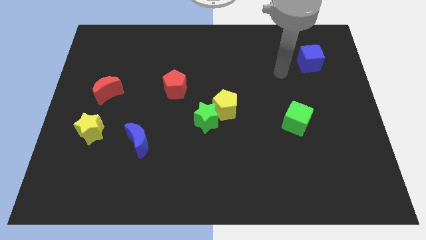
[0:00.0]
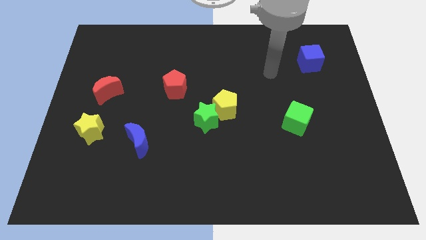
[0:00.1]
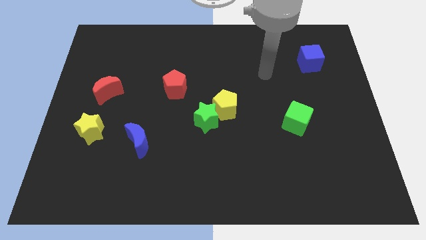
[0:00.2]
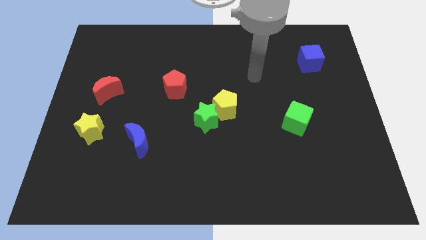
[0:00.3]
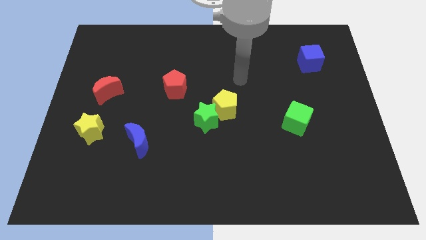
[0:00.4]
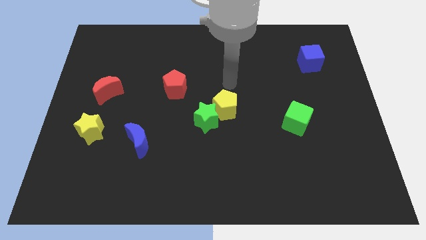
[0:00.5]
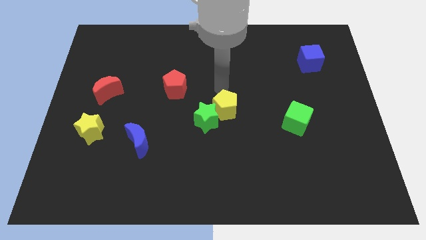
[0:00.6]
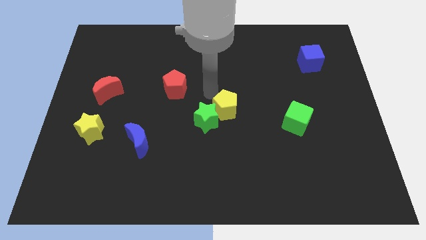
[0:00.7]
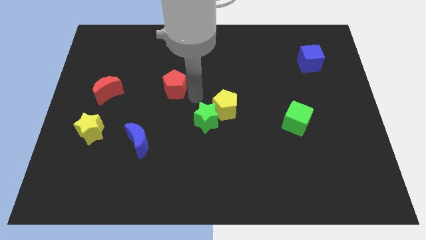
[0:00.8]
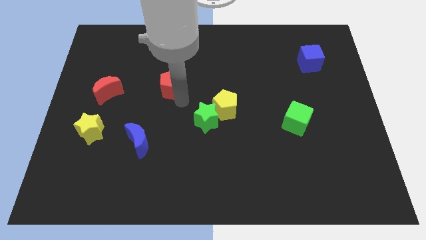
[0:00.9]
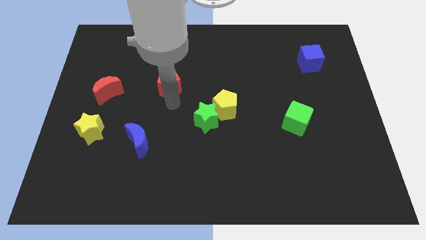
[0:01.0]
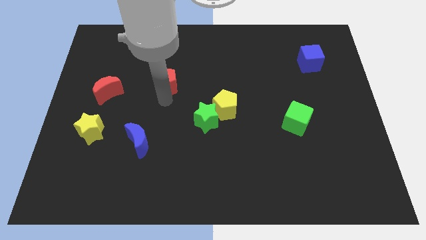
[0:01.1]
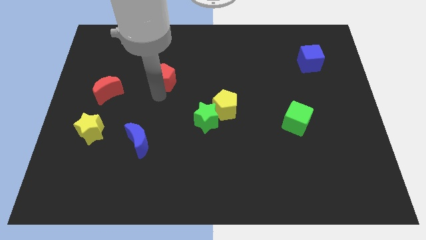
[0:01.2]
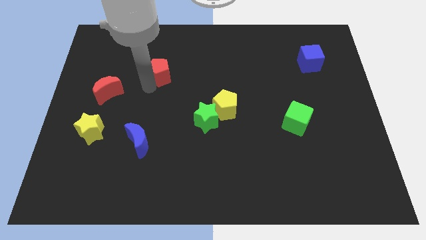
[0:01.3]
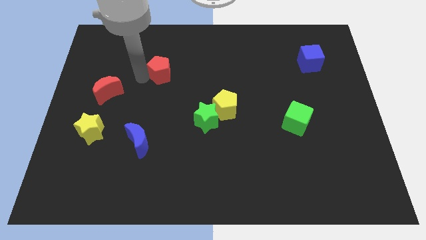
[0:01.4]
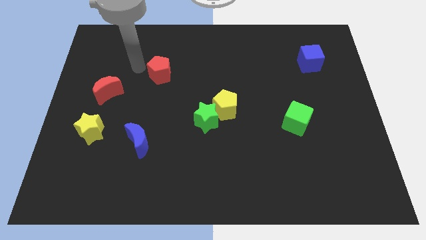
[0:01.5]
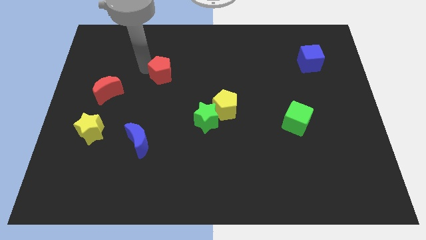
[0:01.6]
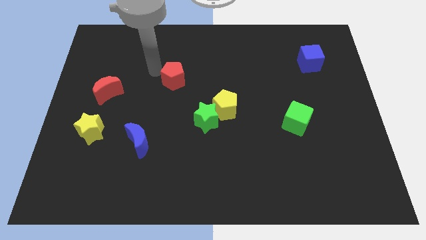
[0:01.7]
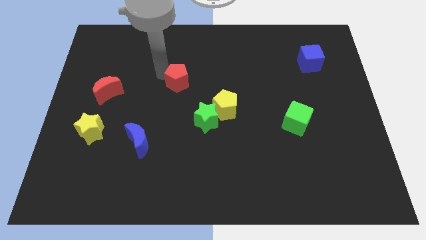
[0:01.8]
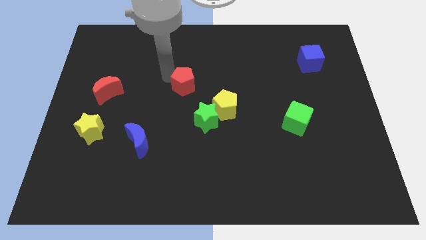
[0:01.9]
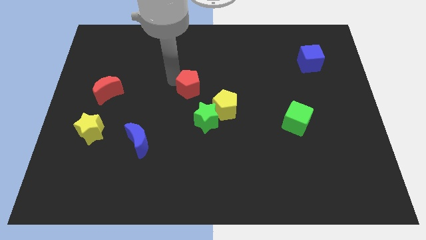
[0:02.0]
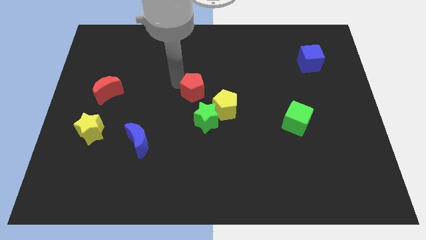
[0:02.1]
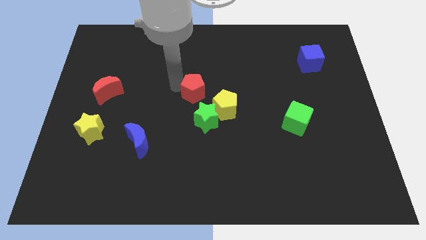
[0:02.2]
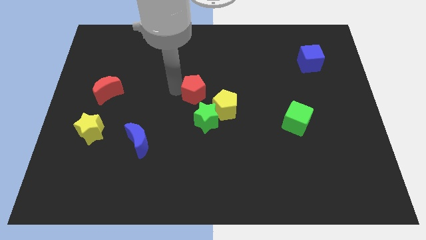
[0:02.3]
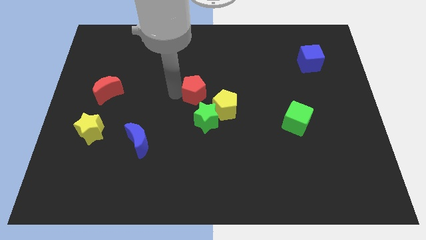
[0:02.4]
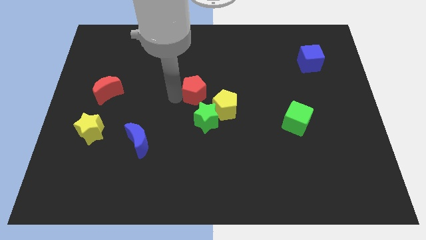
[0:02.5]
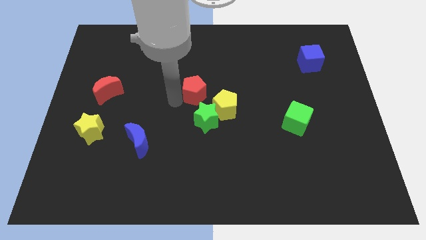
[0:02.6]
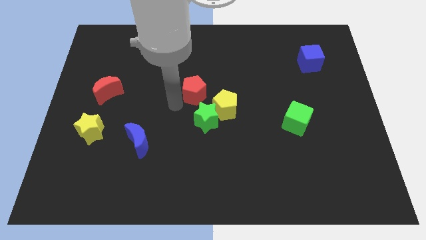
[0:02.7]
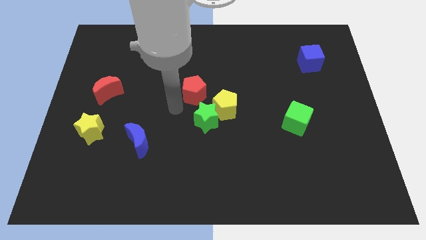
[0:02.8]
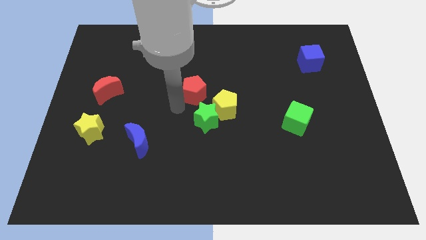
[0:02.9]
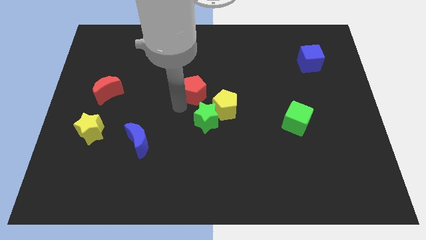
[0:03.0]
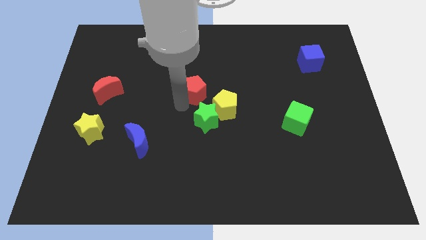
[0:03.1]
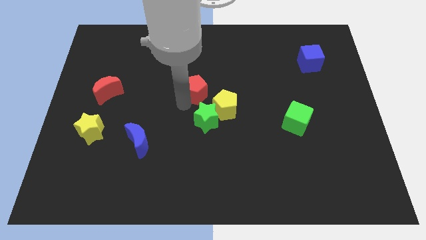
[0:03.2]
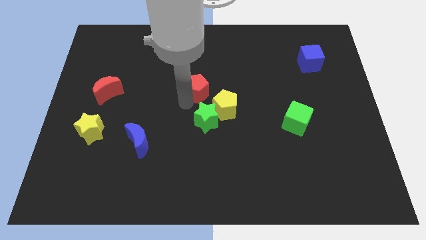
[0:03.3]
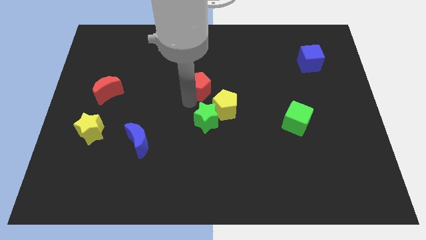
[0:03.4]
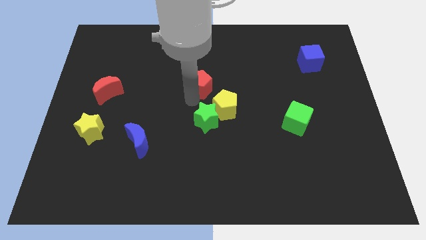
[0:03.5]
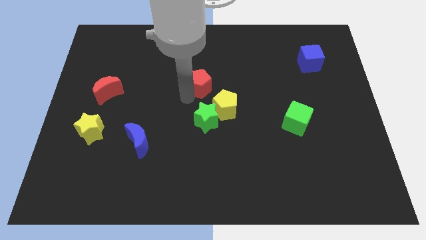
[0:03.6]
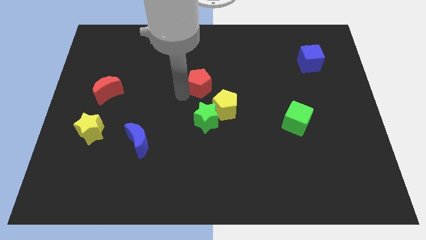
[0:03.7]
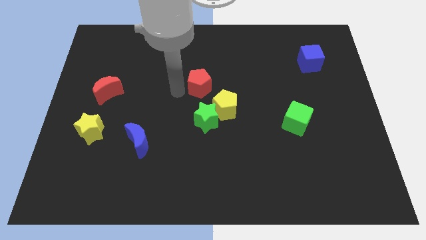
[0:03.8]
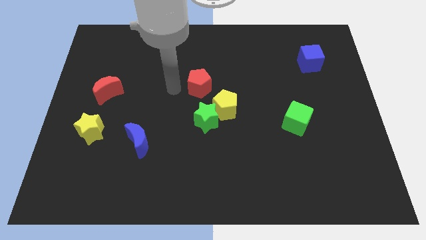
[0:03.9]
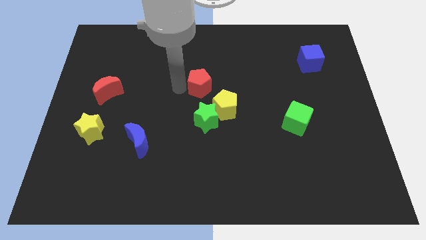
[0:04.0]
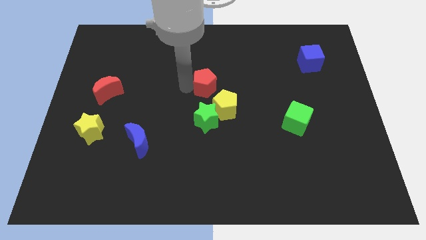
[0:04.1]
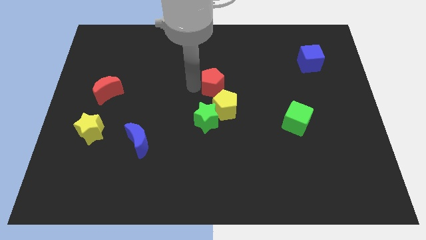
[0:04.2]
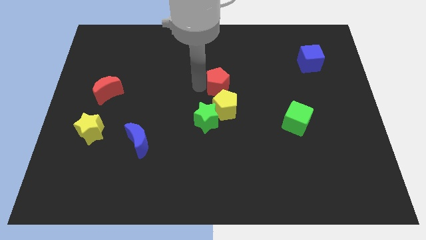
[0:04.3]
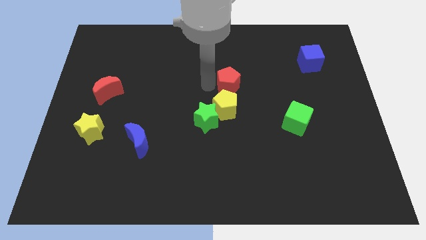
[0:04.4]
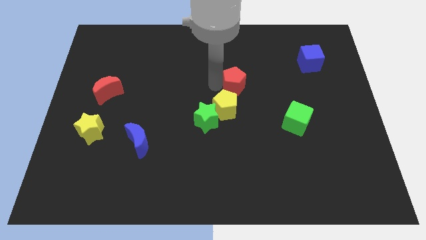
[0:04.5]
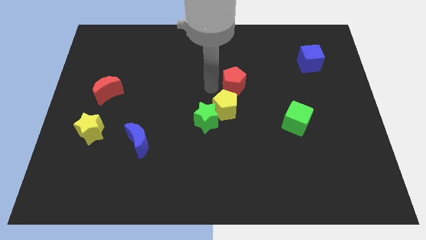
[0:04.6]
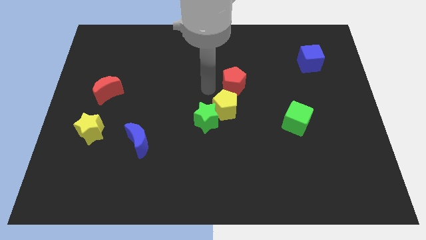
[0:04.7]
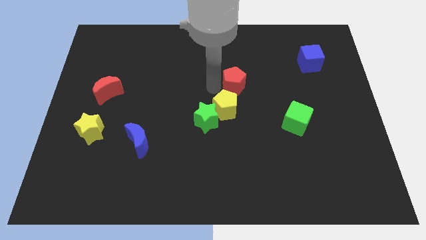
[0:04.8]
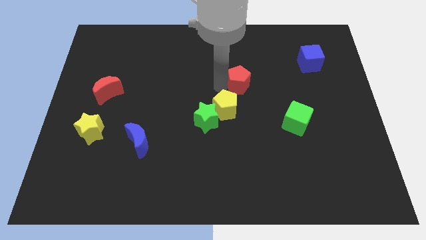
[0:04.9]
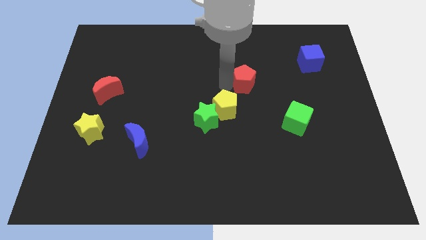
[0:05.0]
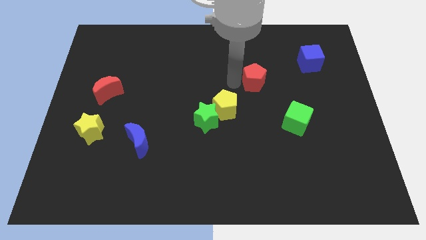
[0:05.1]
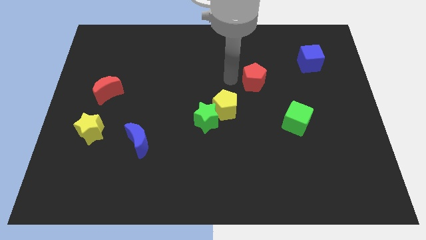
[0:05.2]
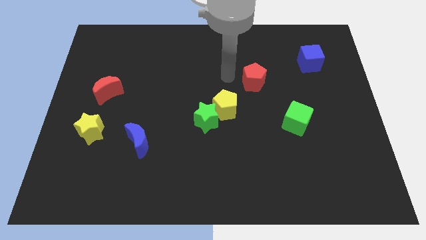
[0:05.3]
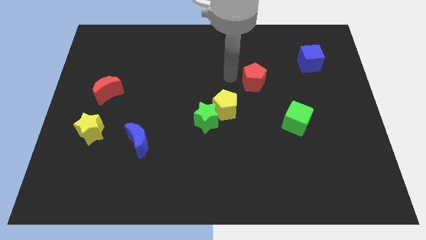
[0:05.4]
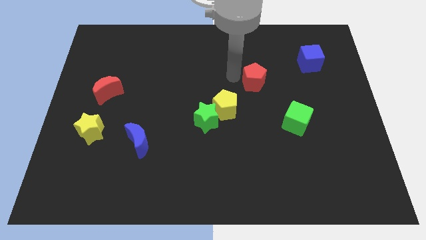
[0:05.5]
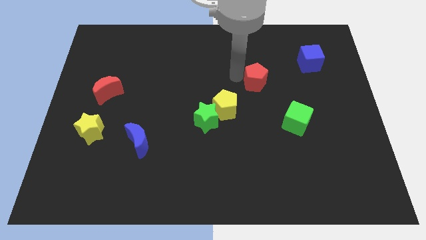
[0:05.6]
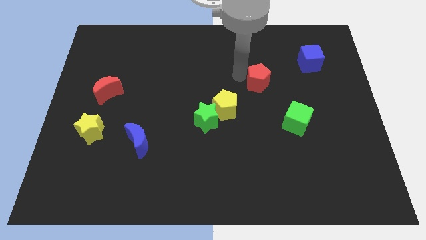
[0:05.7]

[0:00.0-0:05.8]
push the red pentagon to the right

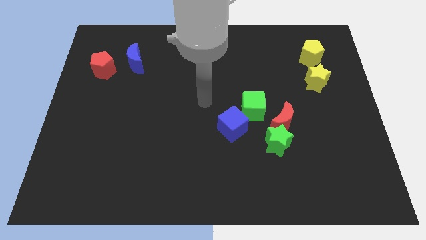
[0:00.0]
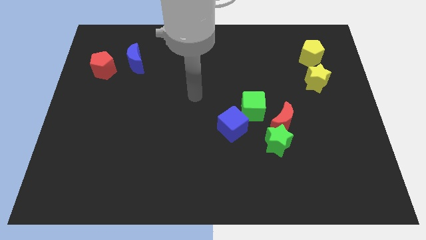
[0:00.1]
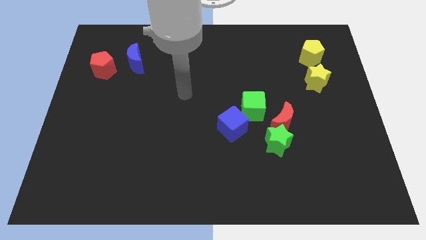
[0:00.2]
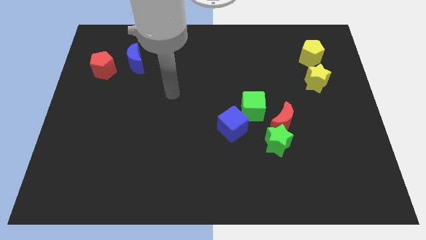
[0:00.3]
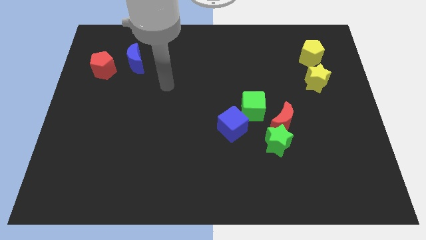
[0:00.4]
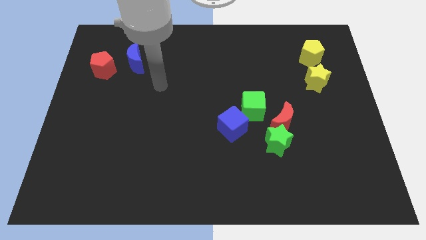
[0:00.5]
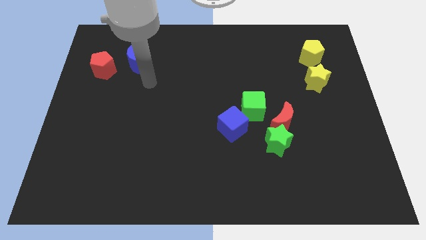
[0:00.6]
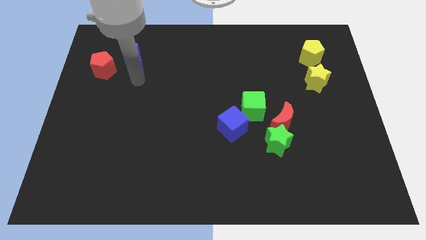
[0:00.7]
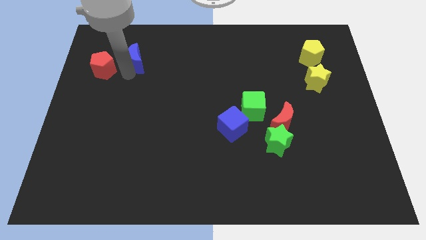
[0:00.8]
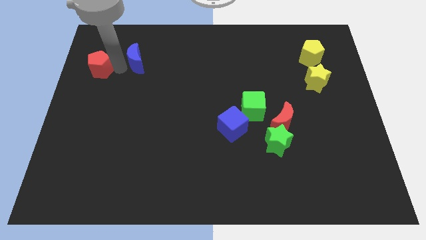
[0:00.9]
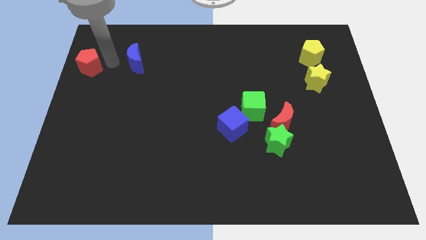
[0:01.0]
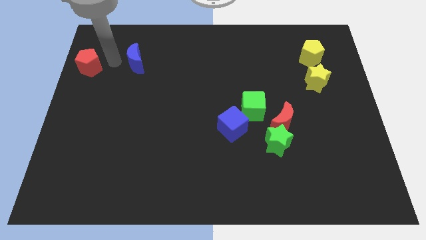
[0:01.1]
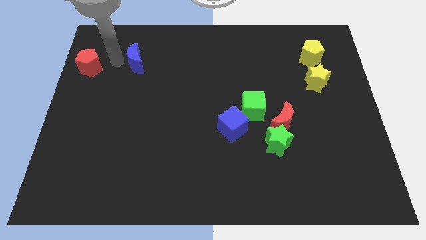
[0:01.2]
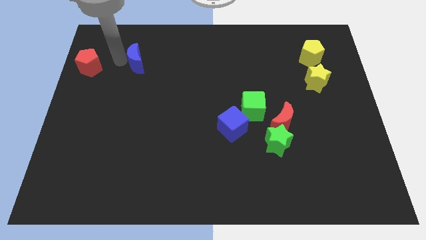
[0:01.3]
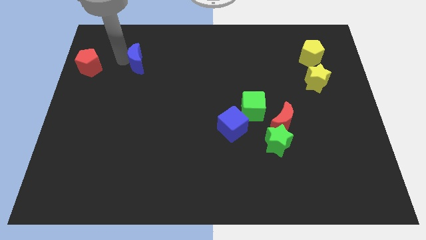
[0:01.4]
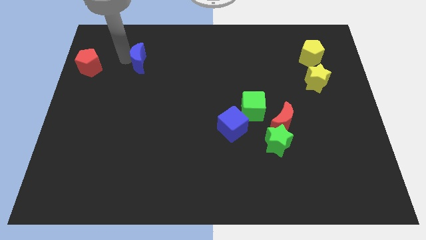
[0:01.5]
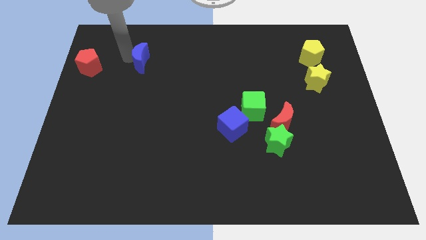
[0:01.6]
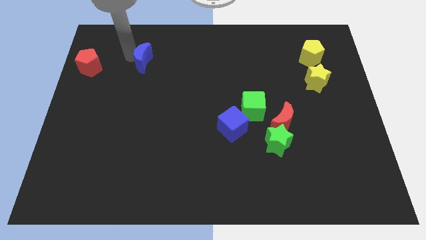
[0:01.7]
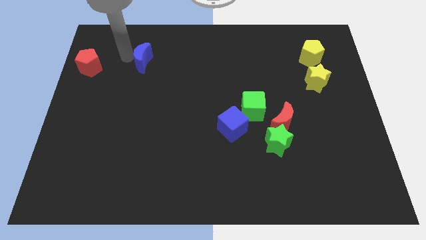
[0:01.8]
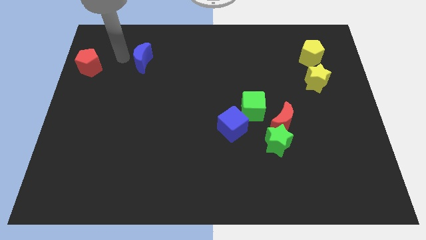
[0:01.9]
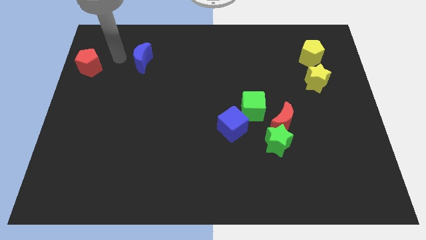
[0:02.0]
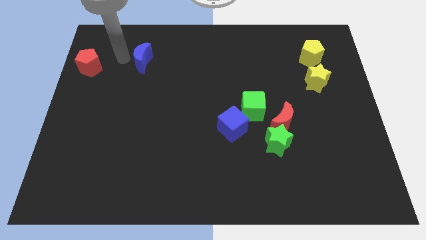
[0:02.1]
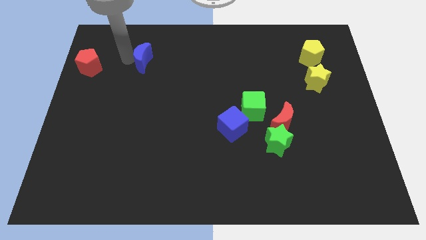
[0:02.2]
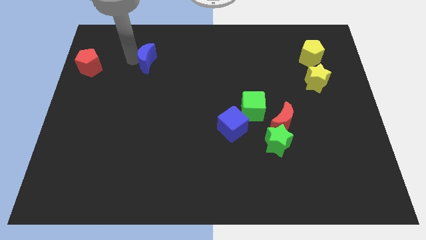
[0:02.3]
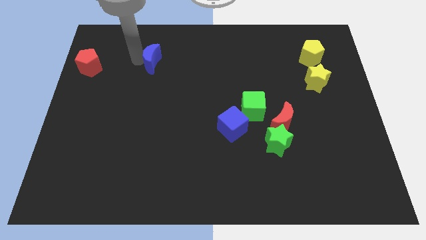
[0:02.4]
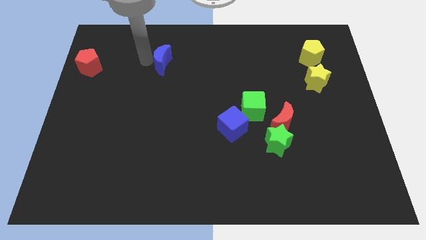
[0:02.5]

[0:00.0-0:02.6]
slightly push the blue moon to the right
